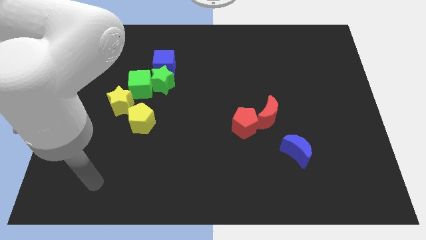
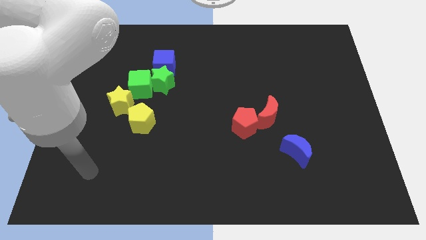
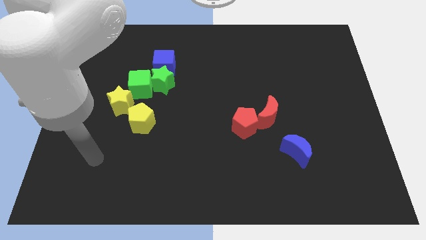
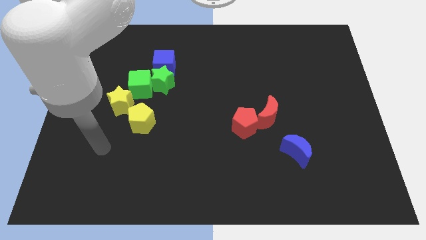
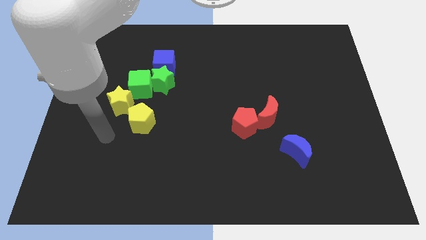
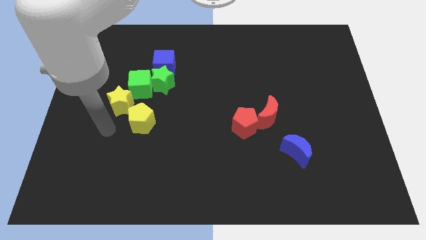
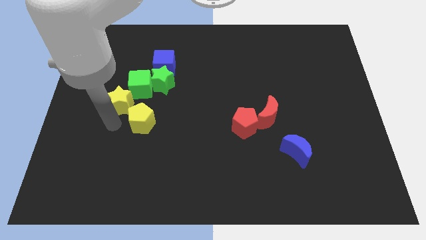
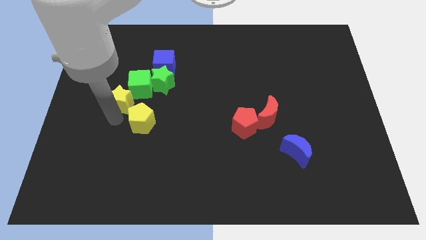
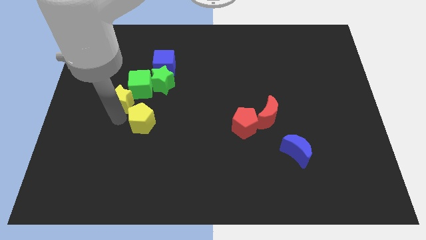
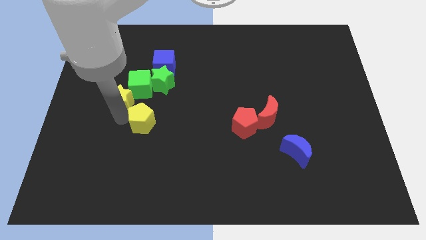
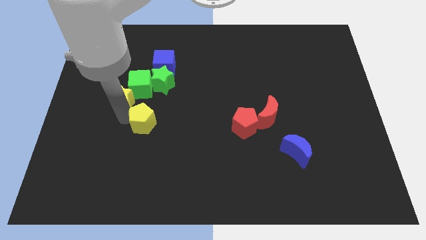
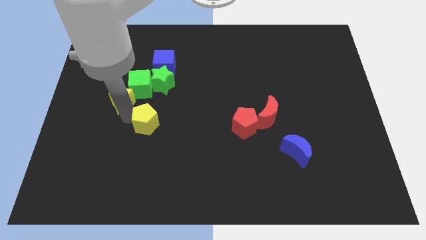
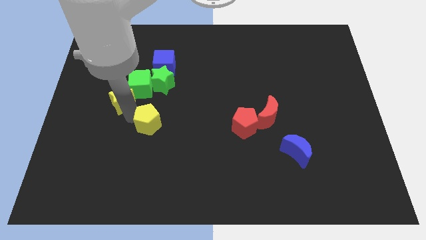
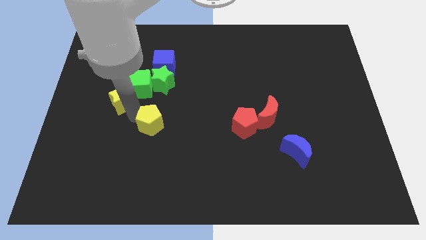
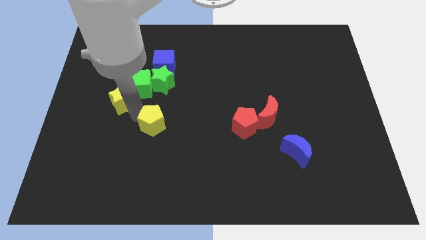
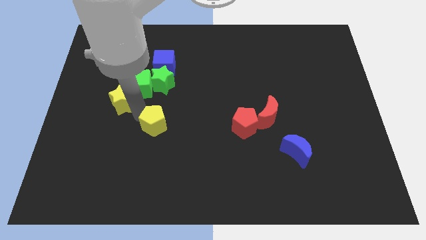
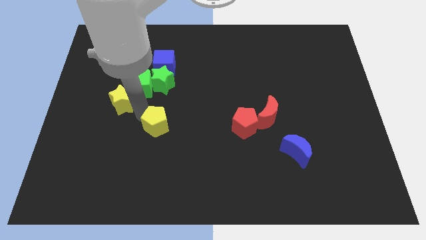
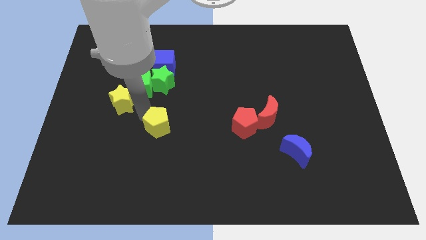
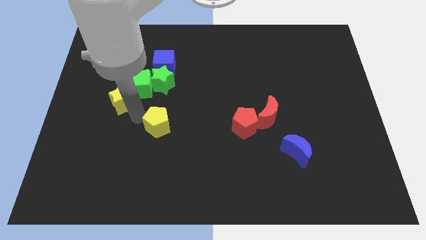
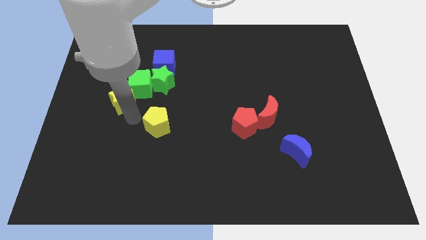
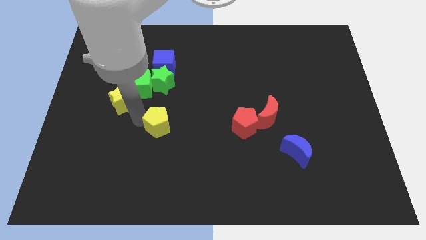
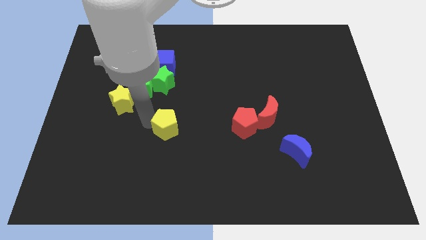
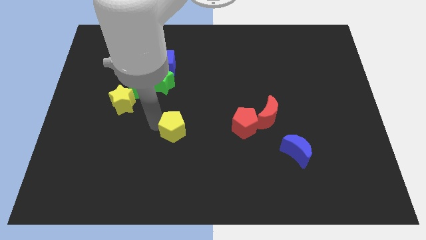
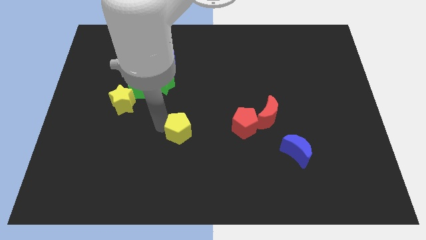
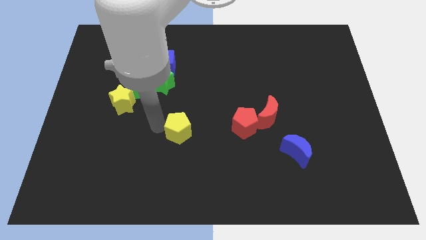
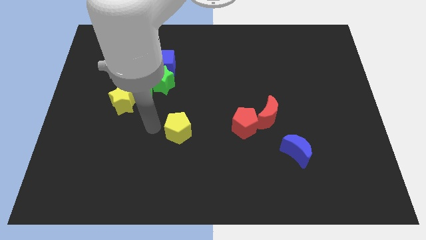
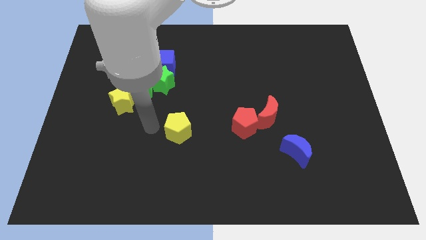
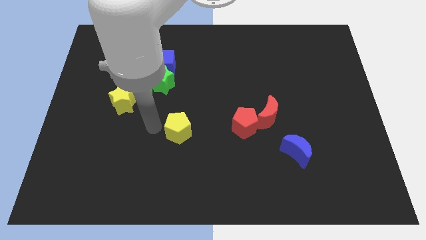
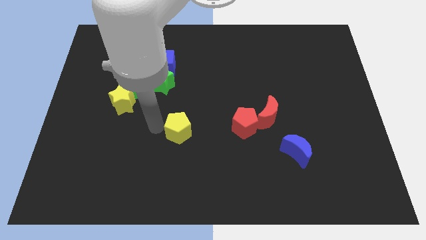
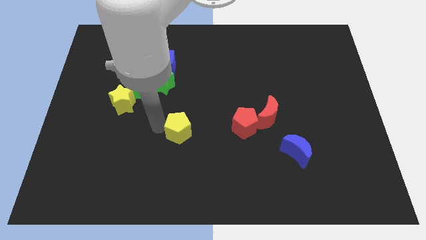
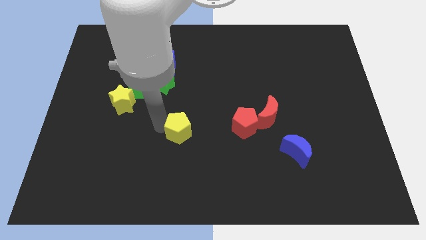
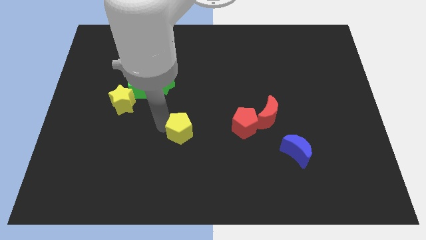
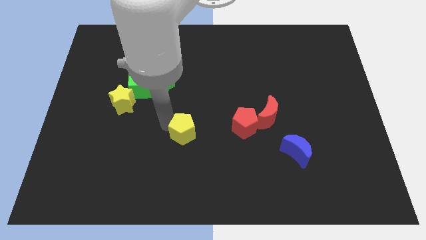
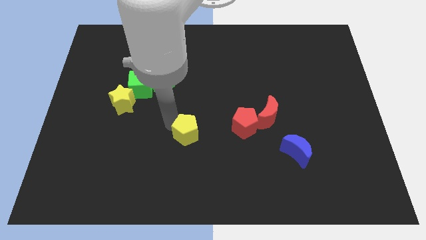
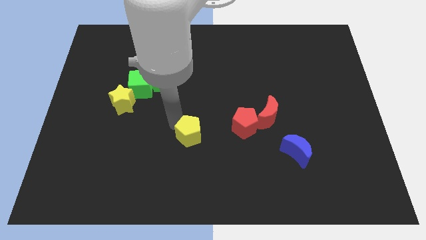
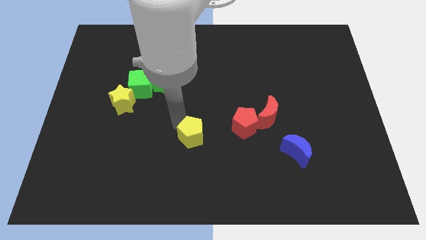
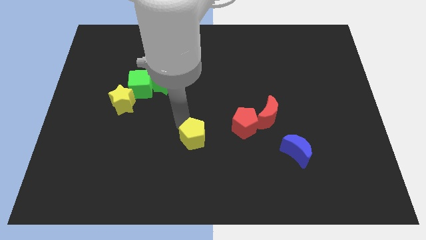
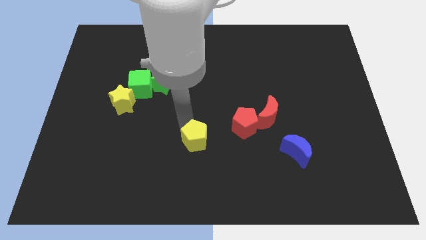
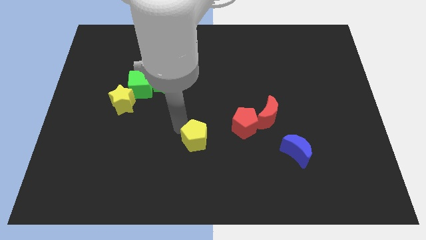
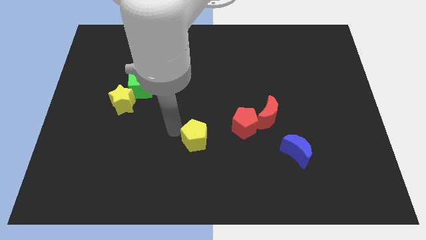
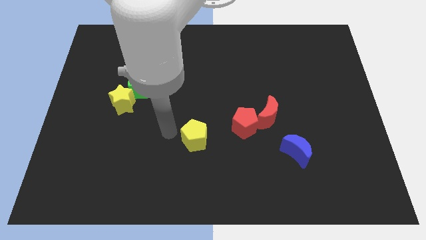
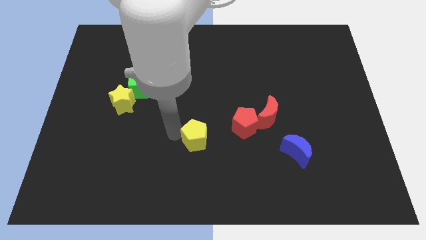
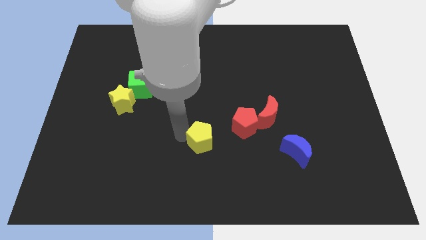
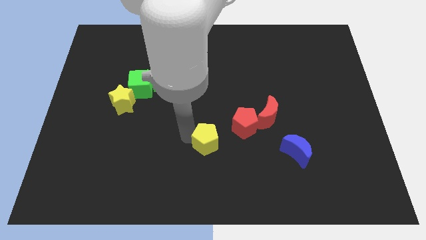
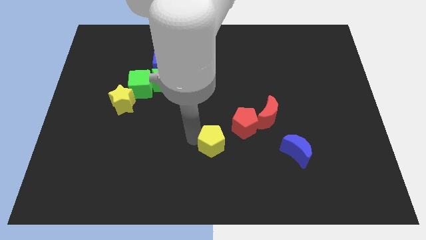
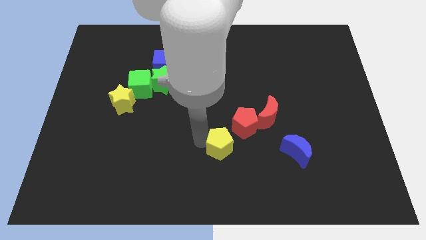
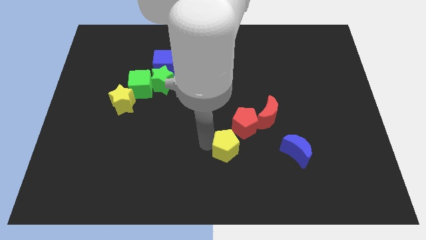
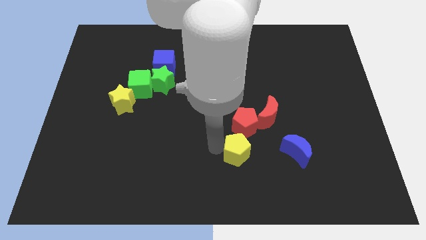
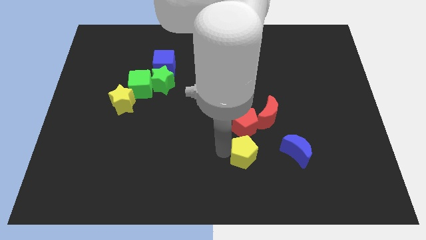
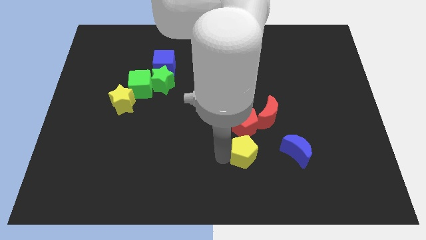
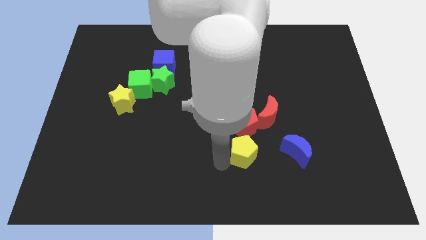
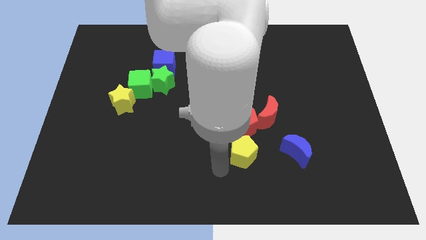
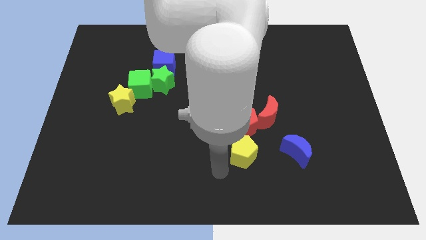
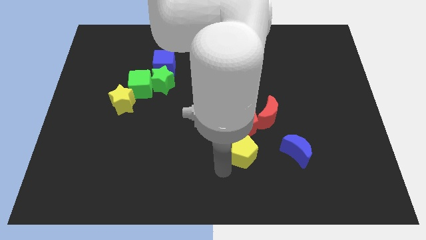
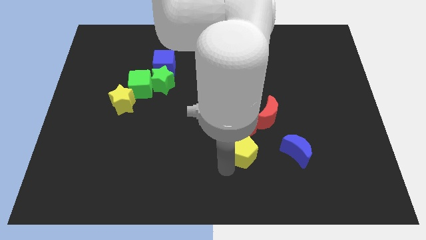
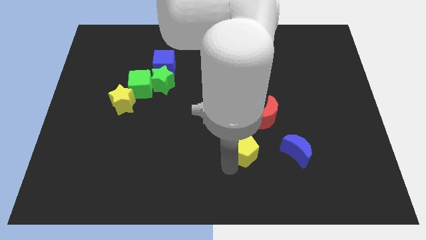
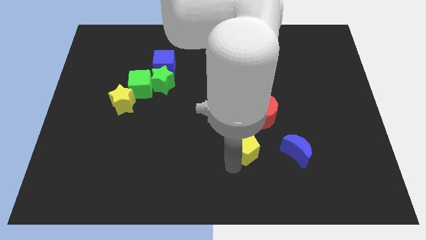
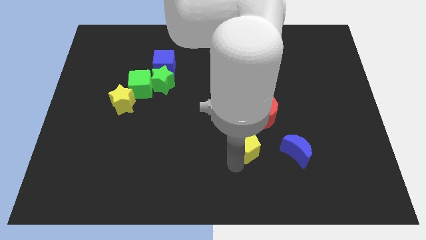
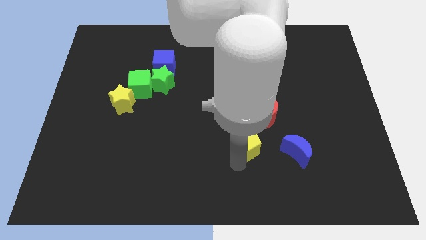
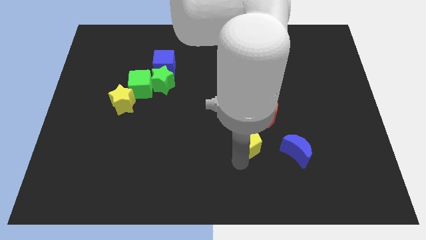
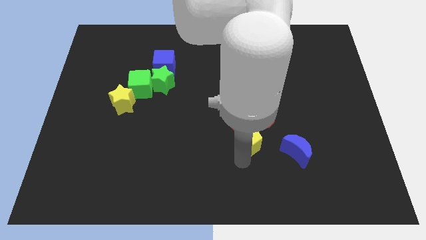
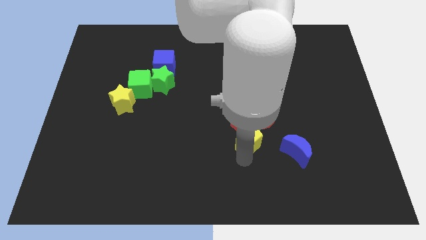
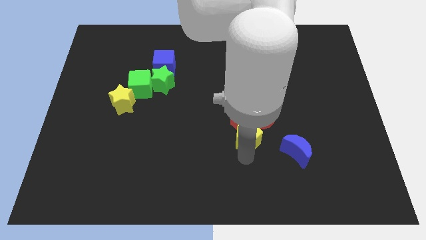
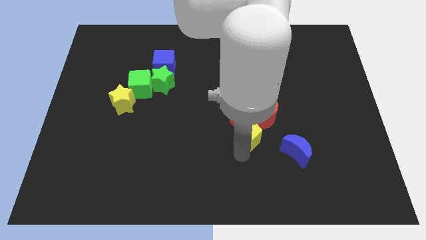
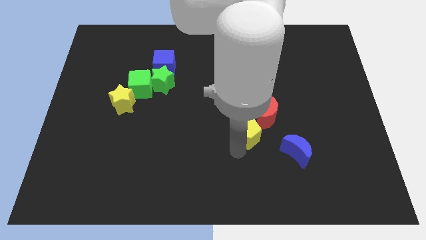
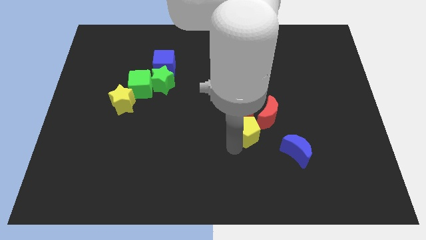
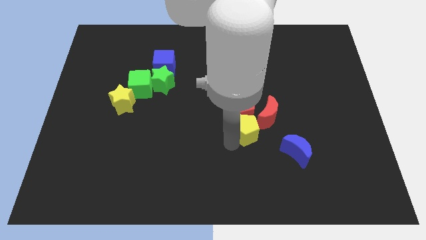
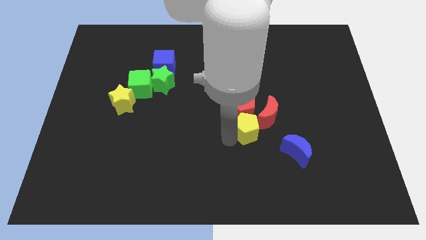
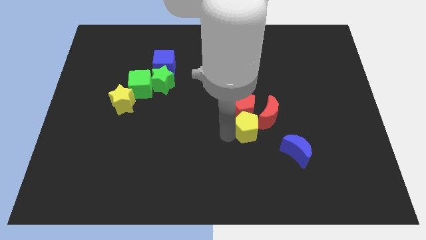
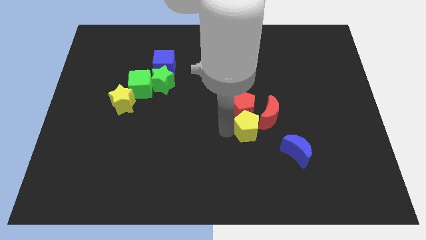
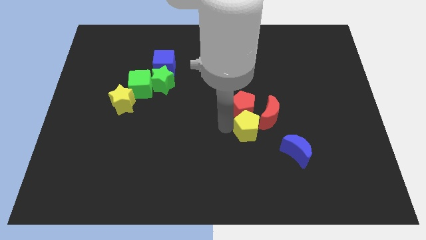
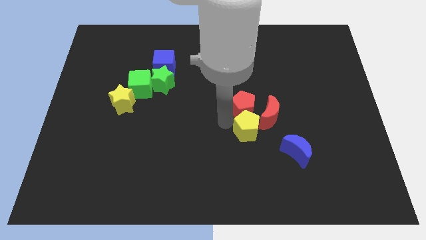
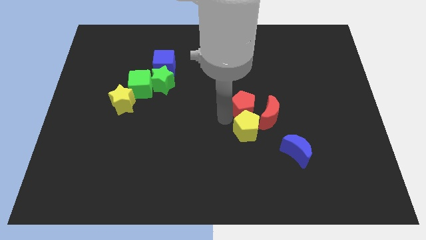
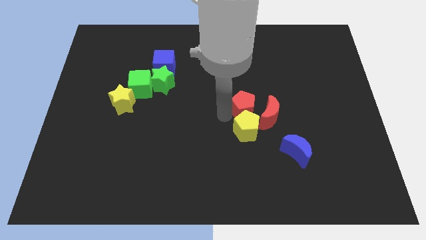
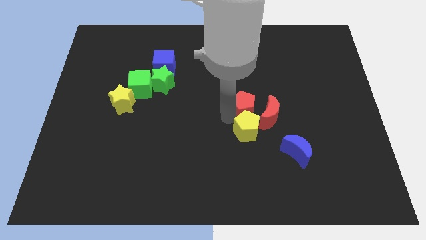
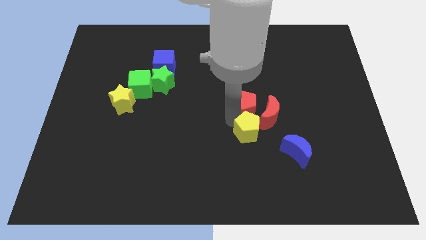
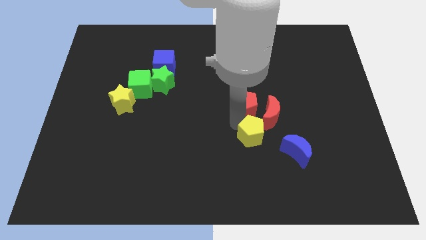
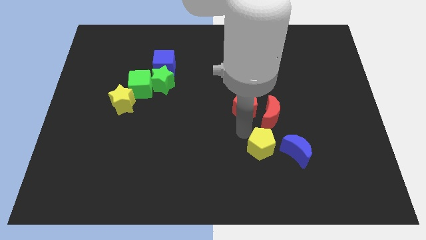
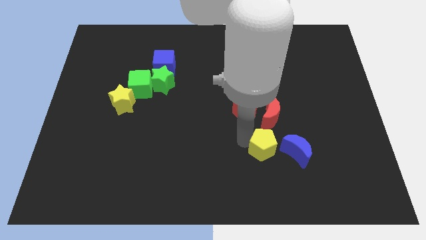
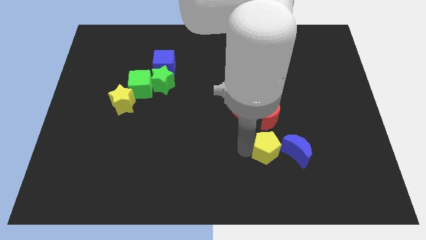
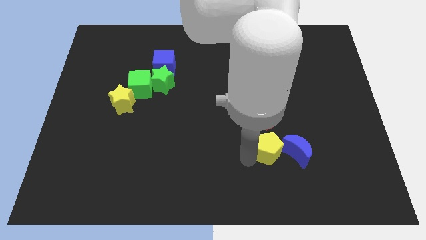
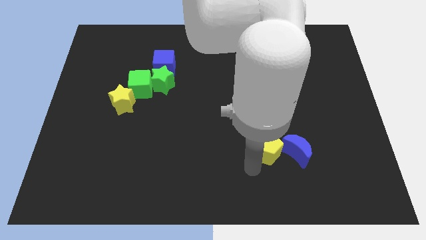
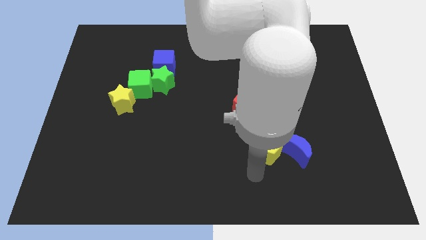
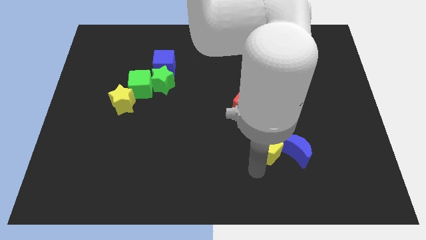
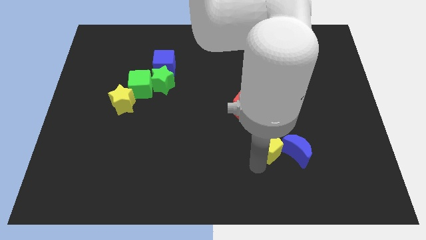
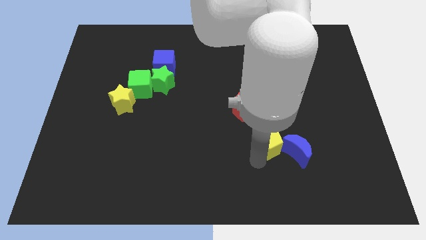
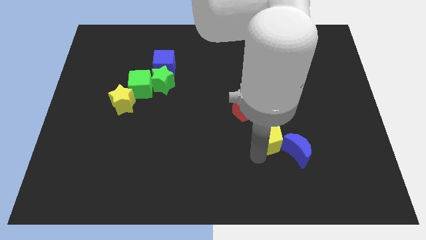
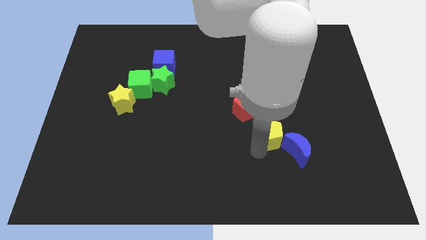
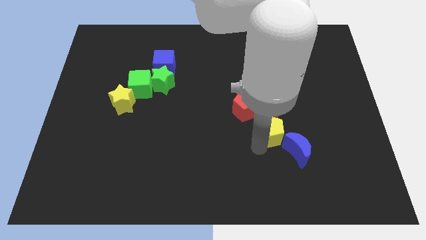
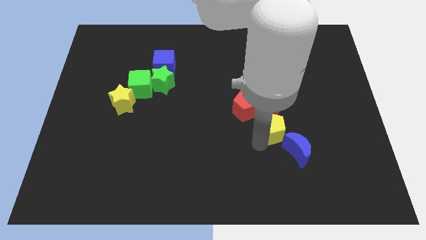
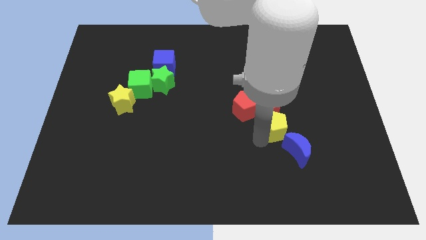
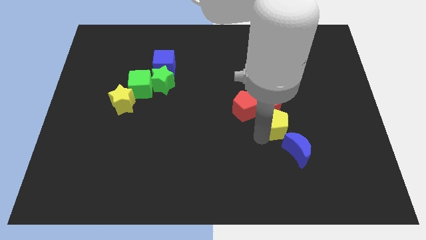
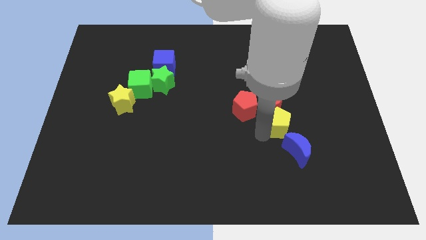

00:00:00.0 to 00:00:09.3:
put the yellow pentagon just right of the red pentagon
